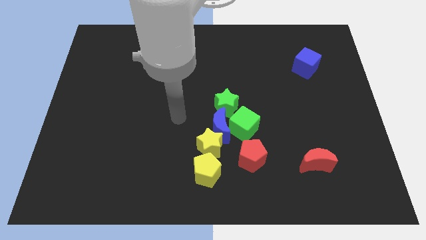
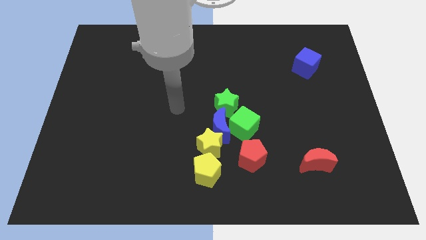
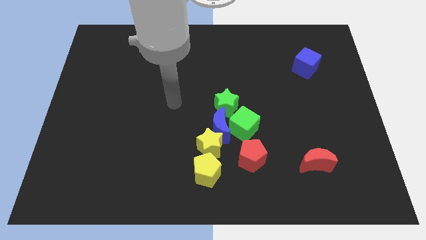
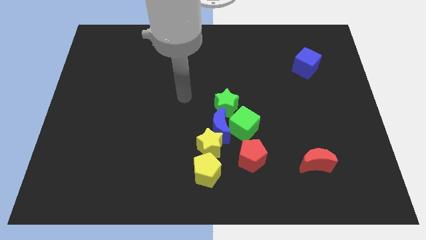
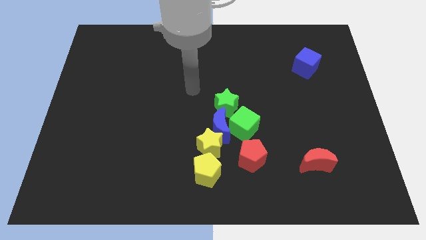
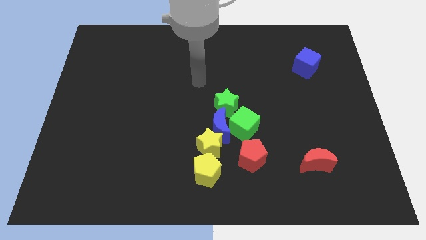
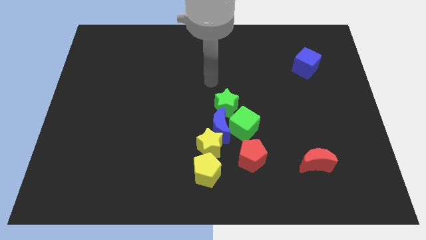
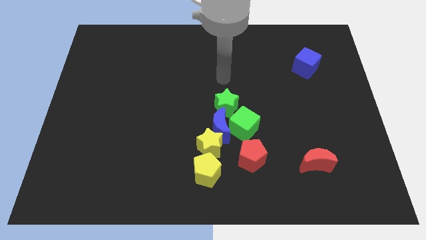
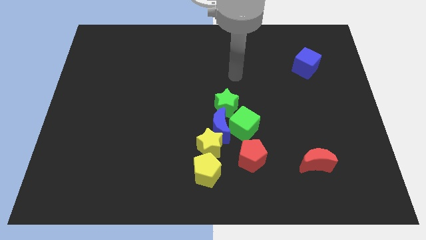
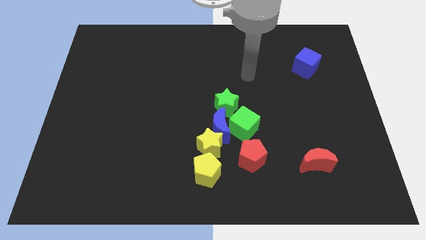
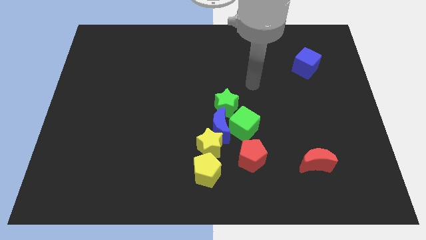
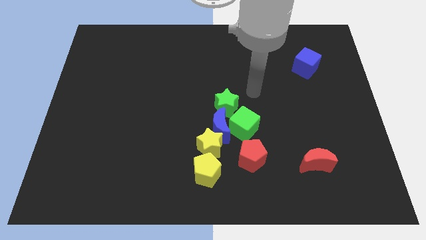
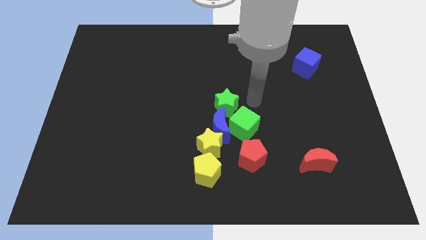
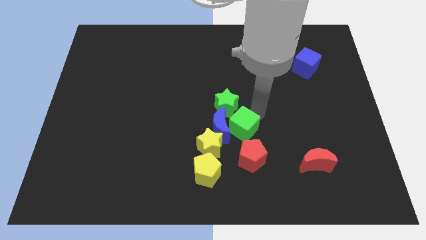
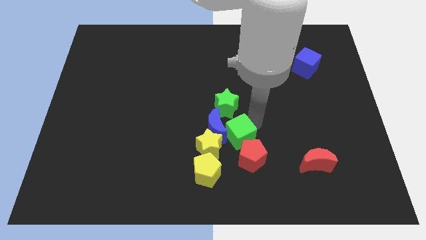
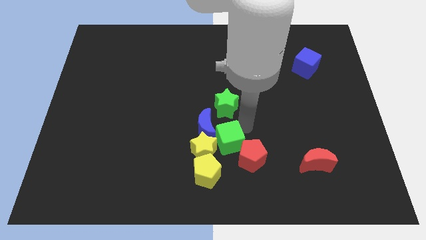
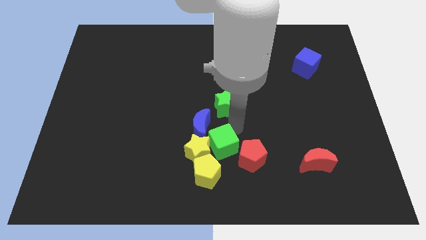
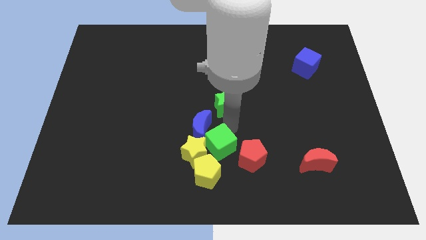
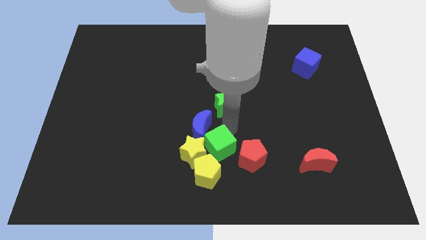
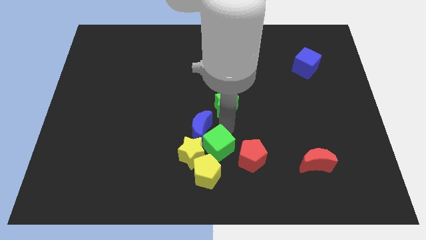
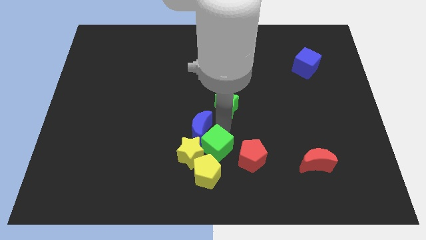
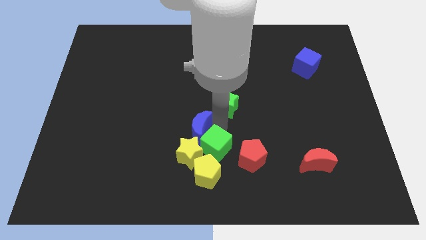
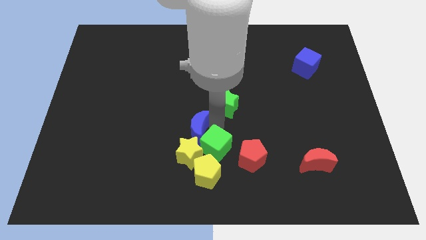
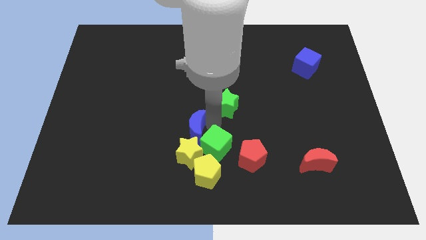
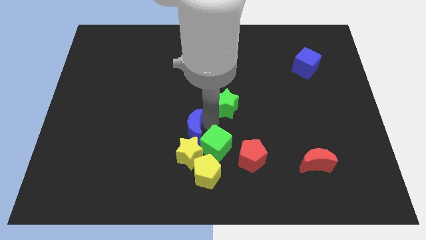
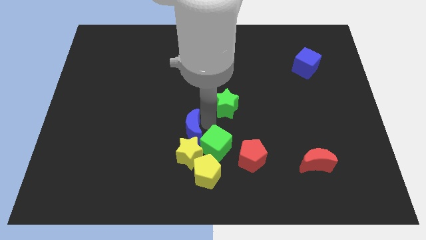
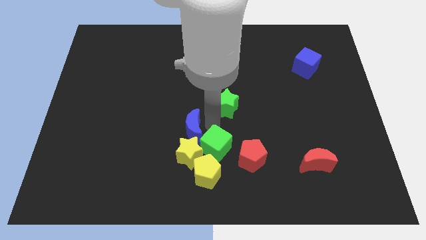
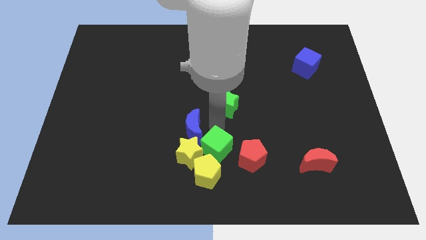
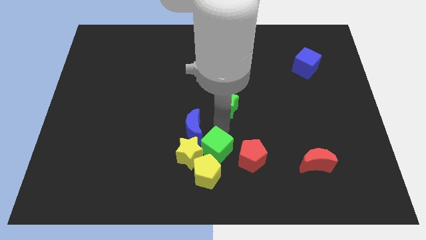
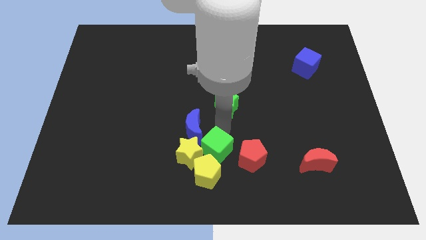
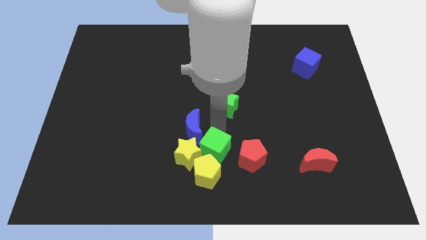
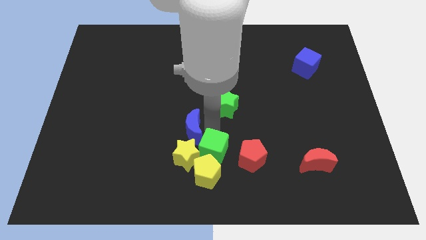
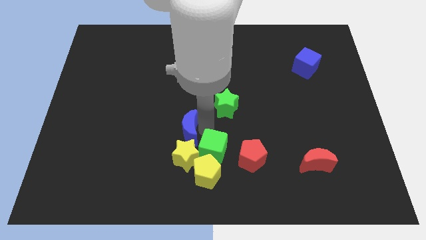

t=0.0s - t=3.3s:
slightly push the blue moon to the left

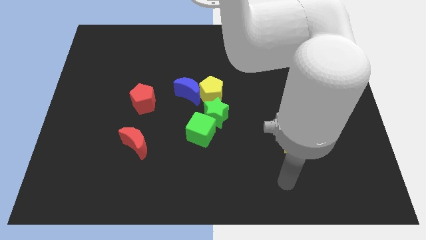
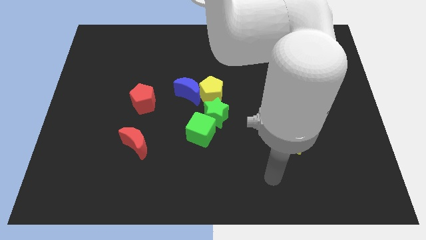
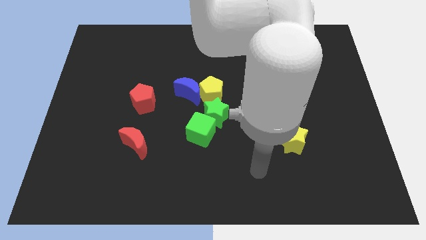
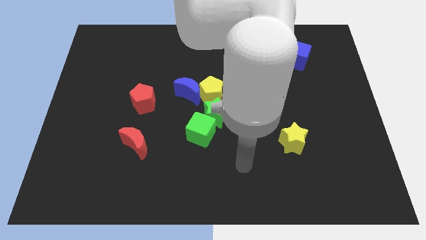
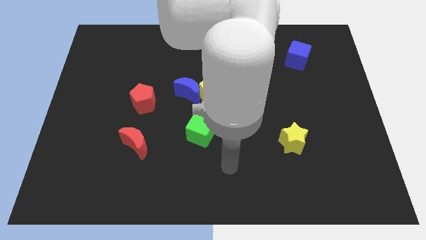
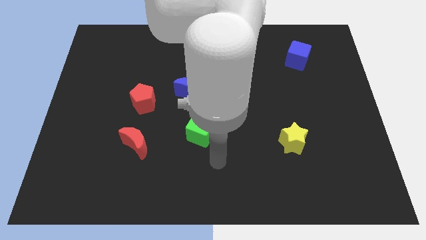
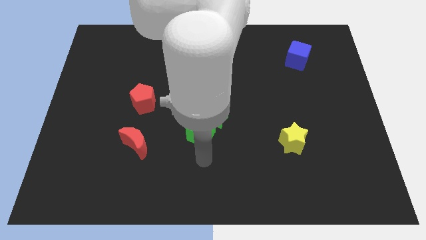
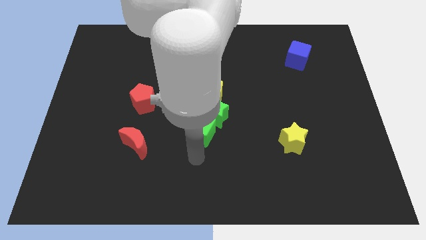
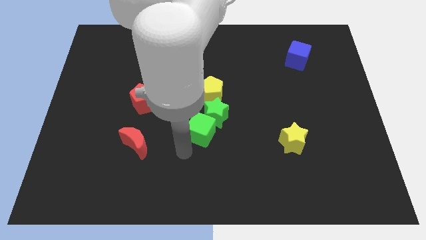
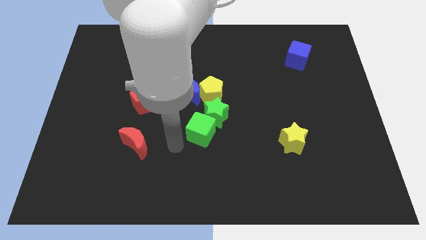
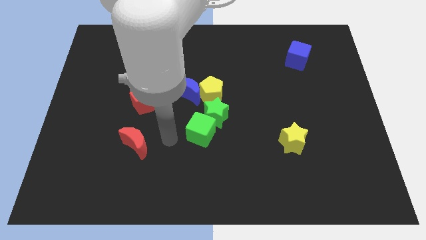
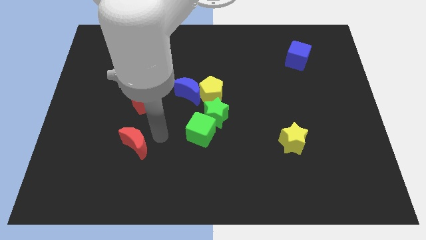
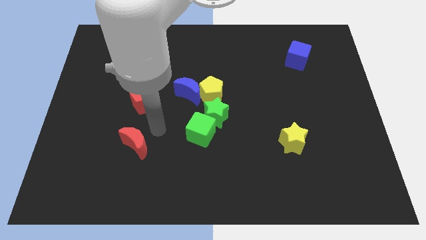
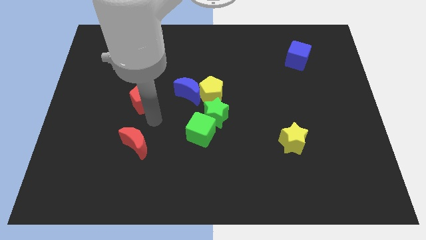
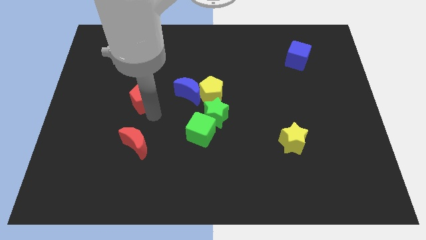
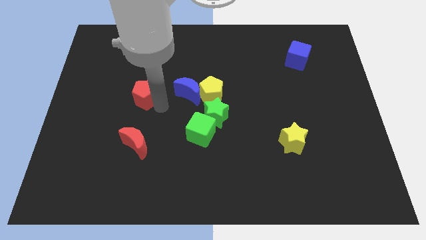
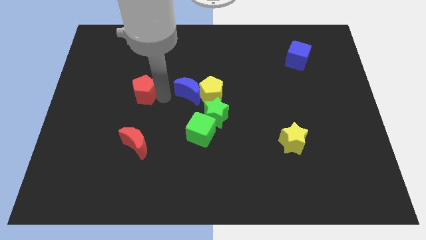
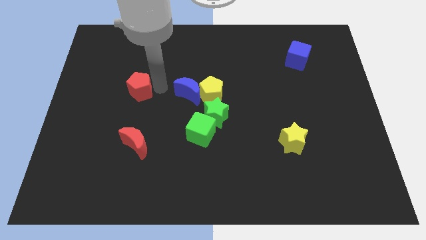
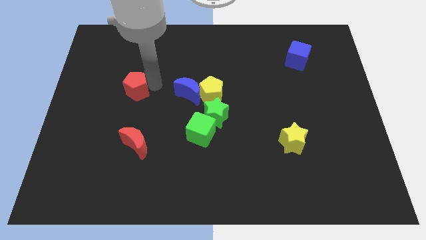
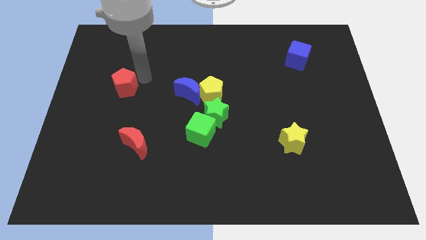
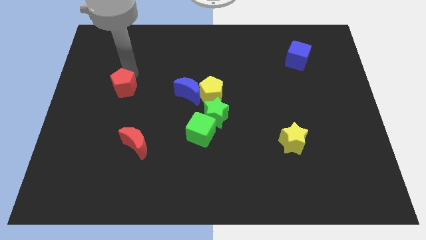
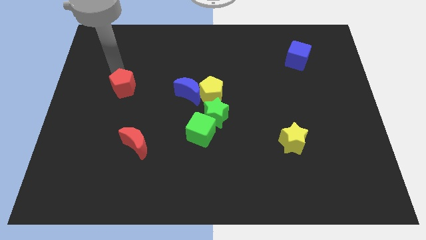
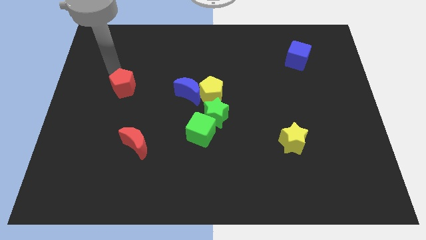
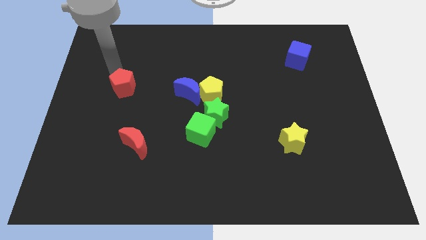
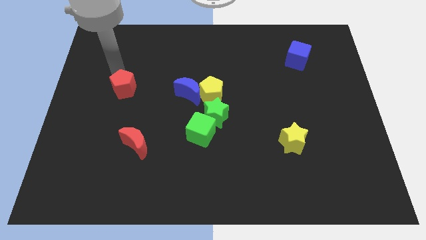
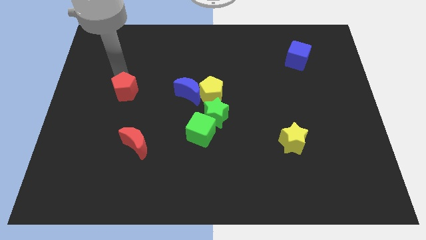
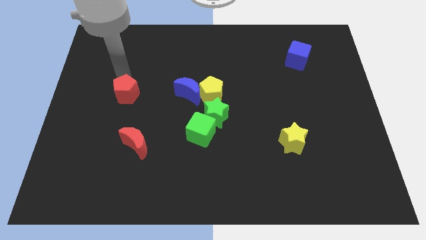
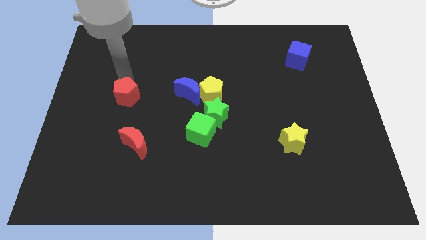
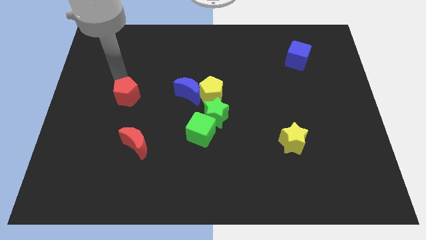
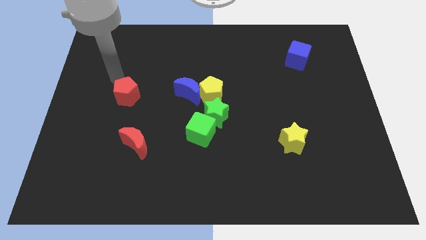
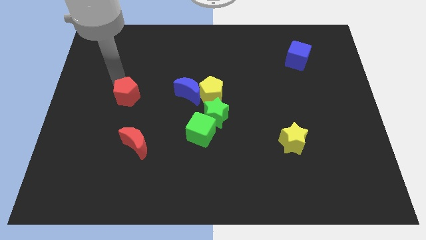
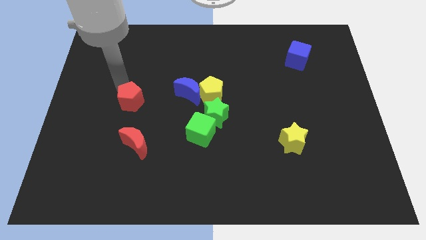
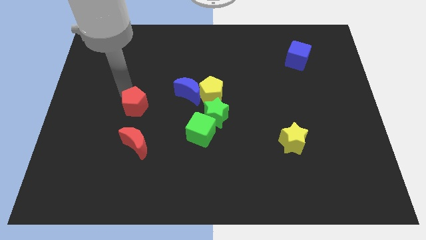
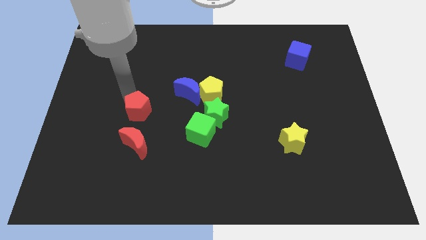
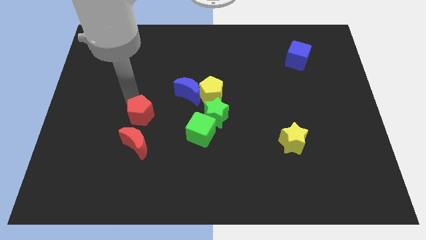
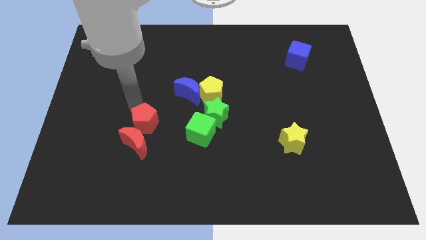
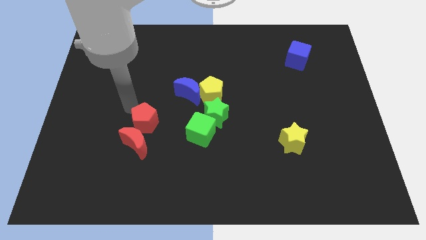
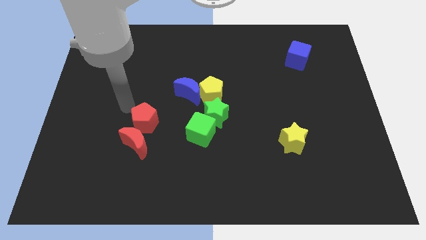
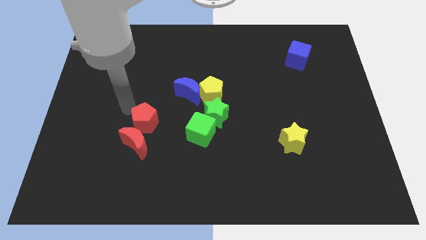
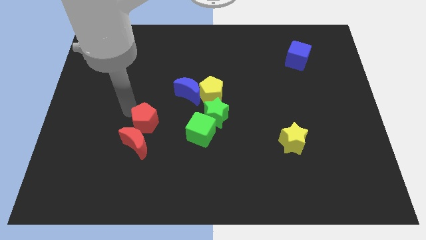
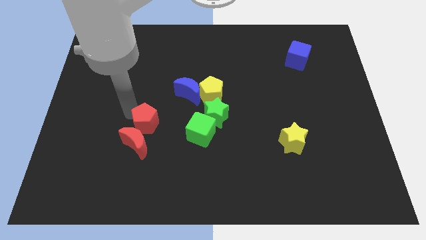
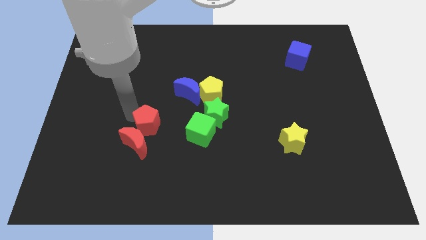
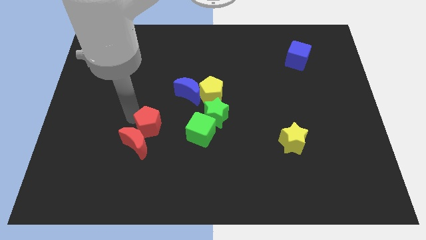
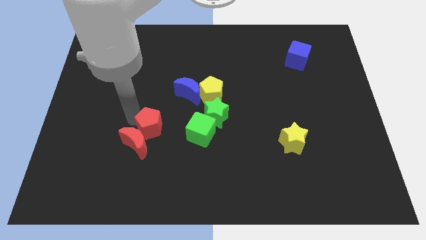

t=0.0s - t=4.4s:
move the red pentagon somewhat downwards

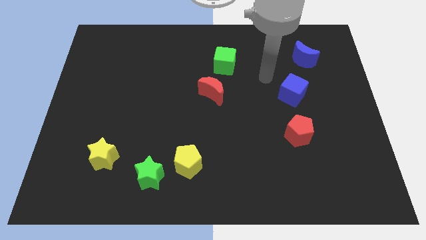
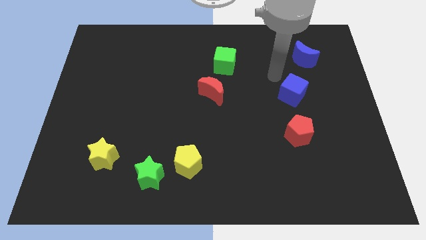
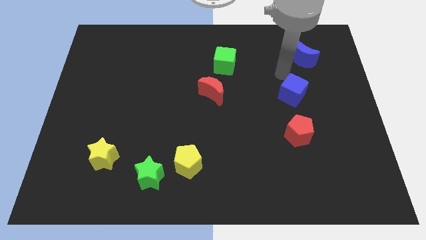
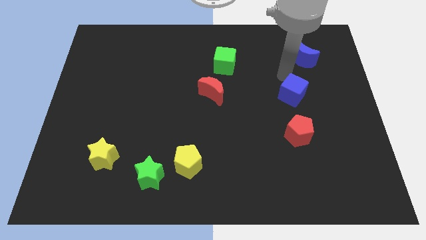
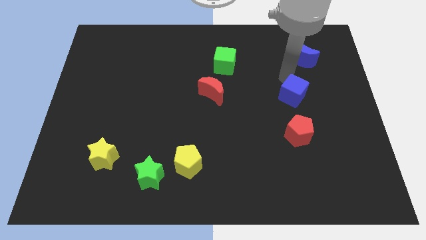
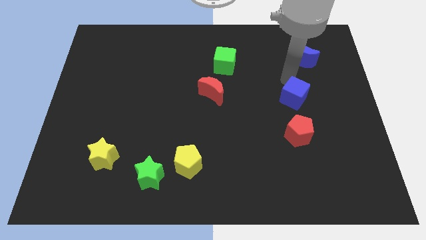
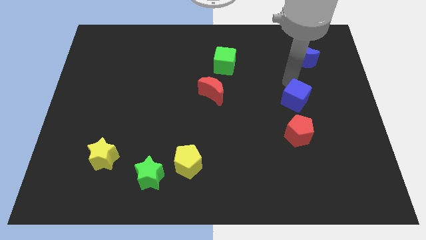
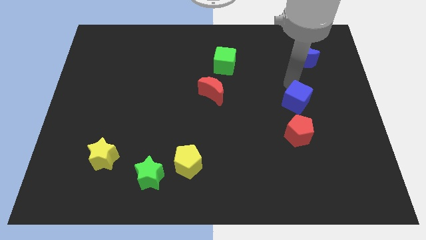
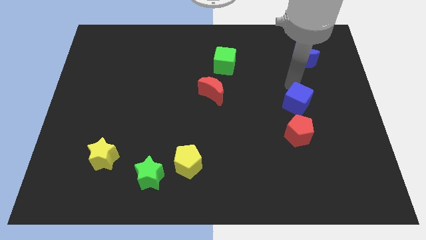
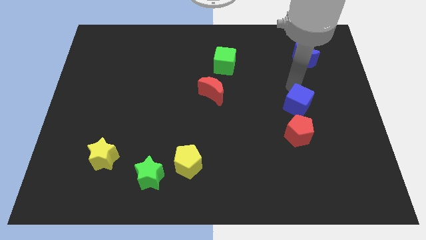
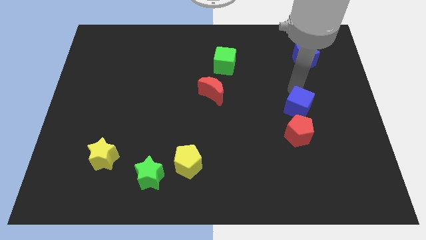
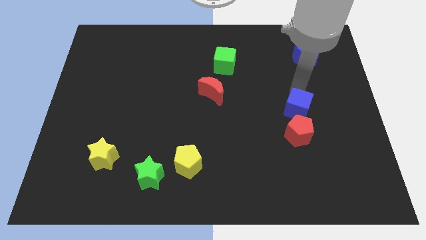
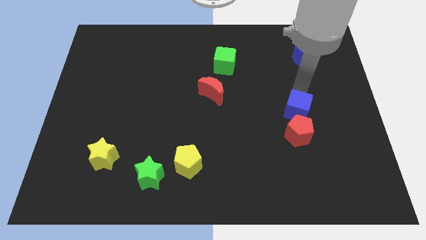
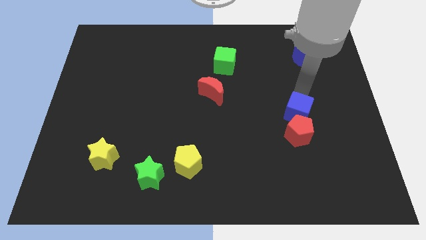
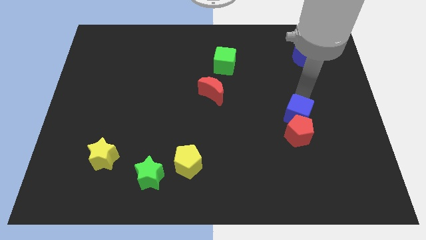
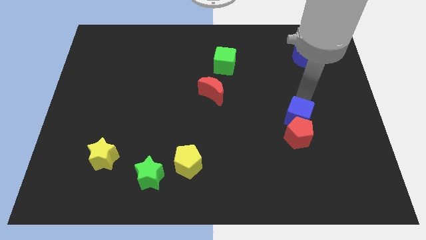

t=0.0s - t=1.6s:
slightly move the blue cube down
